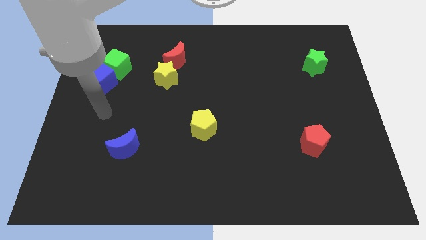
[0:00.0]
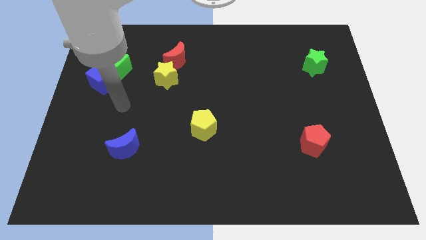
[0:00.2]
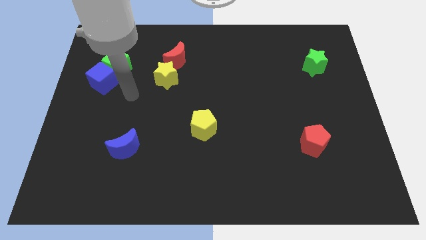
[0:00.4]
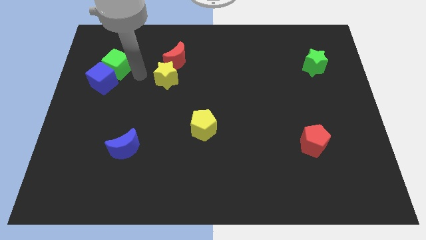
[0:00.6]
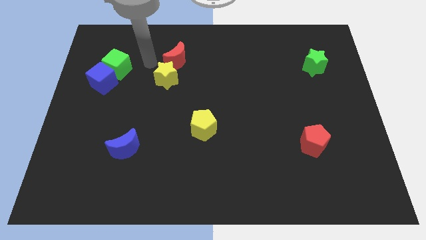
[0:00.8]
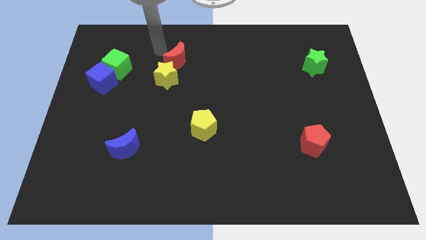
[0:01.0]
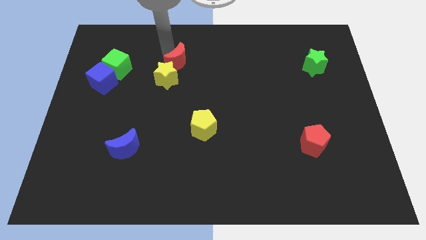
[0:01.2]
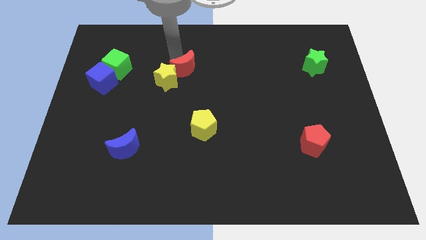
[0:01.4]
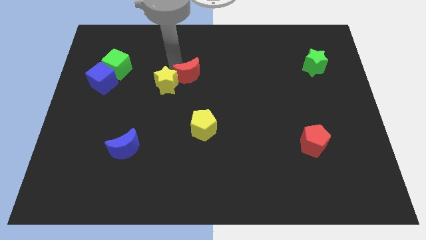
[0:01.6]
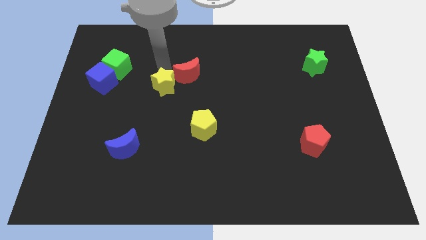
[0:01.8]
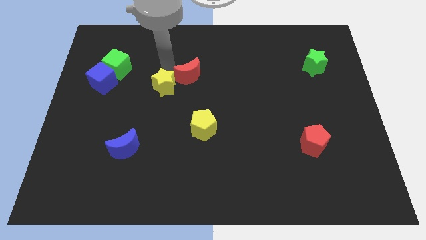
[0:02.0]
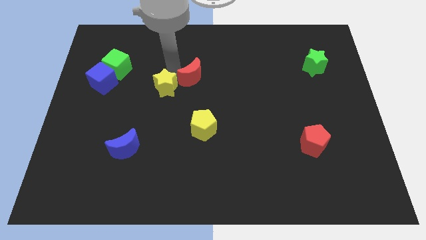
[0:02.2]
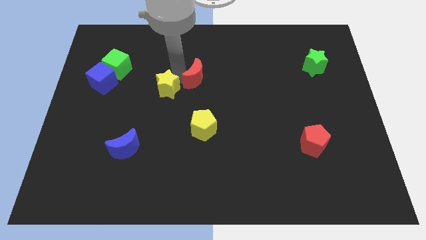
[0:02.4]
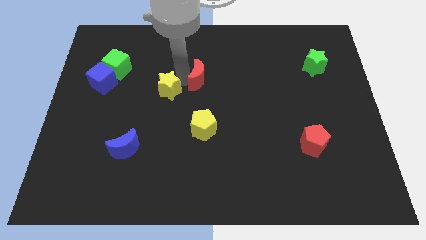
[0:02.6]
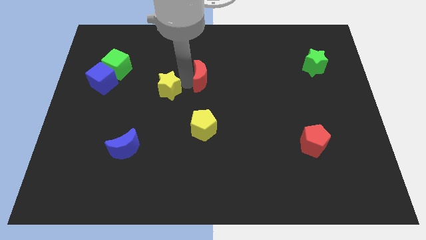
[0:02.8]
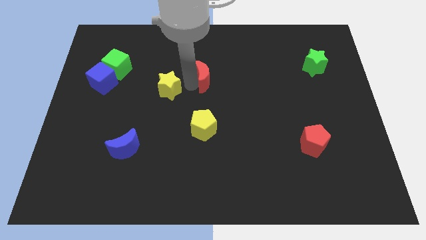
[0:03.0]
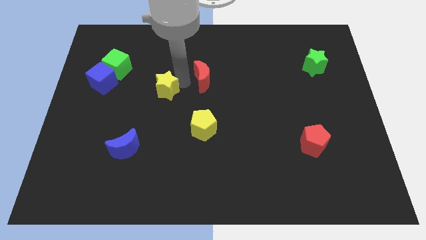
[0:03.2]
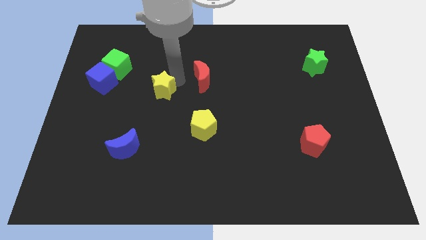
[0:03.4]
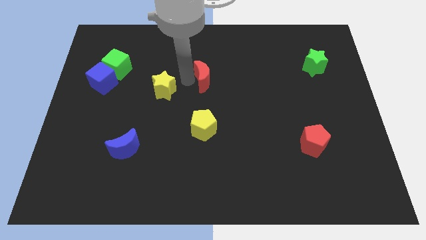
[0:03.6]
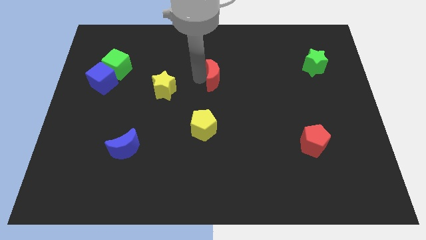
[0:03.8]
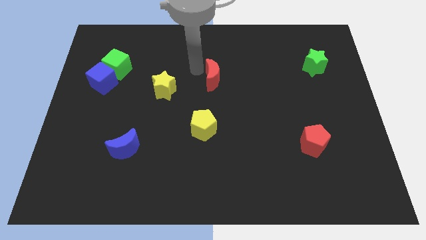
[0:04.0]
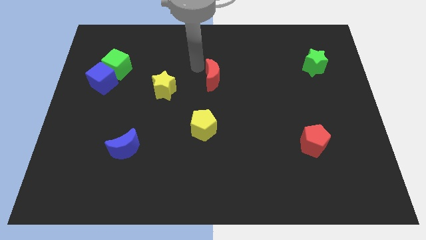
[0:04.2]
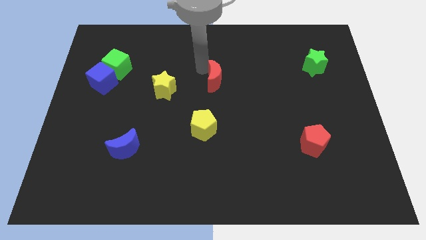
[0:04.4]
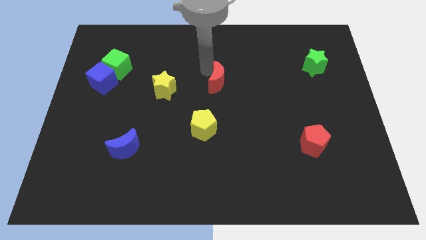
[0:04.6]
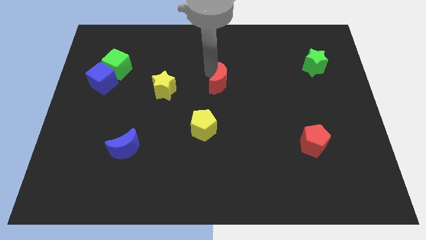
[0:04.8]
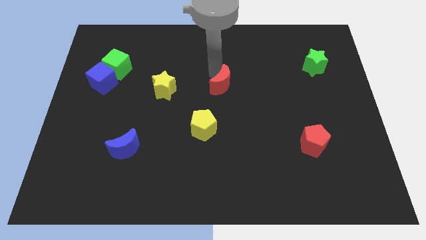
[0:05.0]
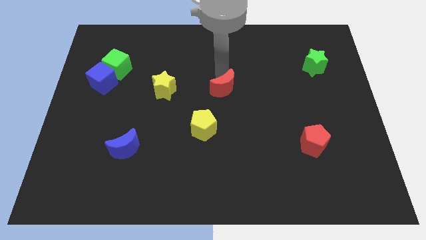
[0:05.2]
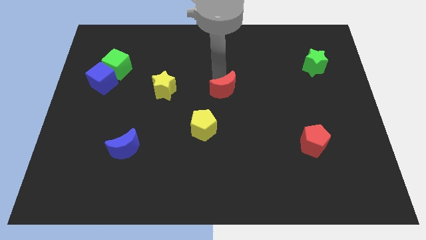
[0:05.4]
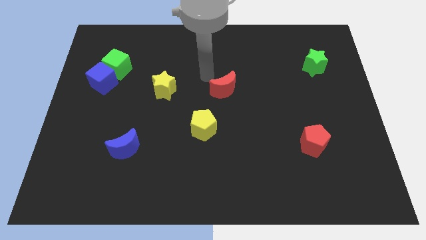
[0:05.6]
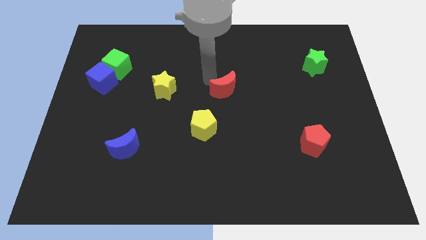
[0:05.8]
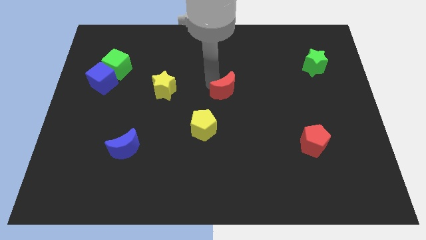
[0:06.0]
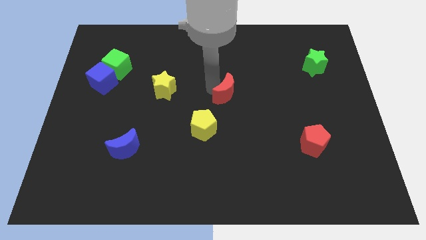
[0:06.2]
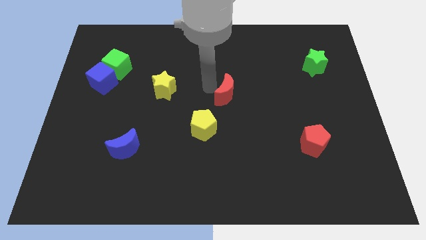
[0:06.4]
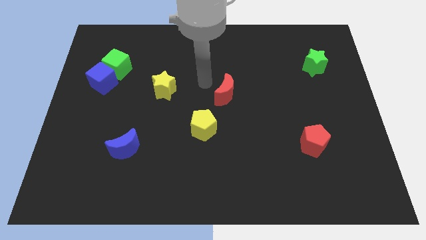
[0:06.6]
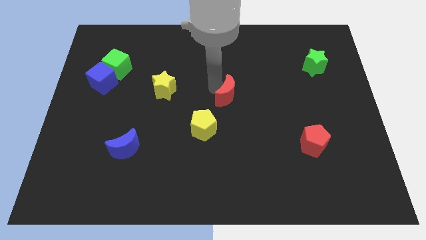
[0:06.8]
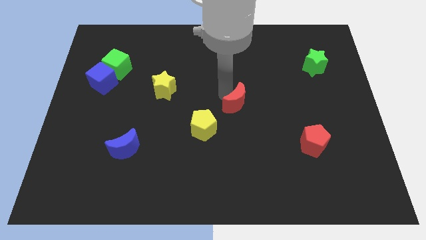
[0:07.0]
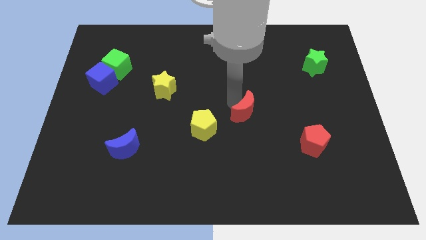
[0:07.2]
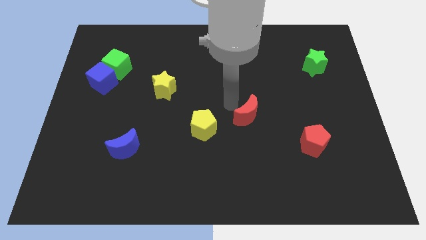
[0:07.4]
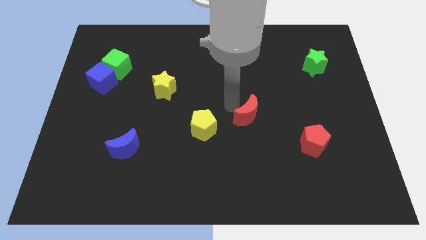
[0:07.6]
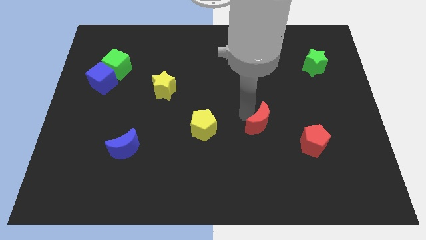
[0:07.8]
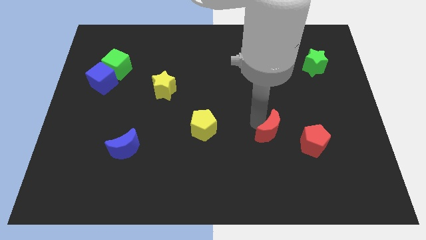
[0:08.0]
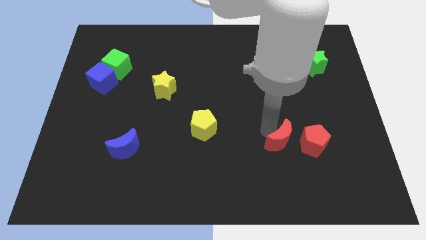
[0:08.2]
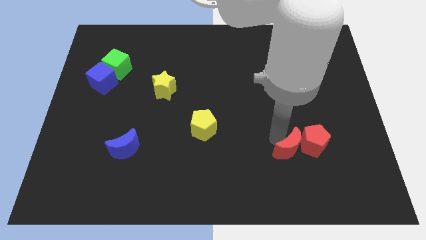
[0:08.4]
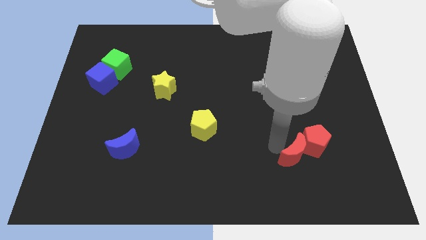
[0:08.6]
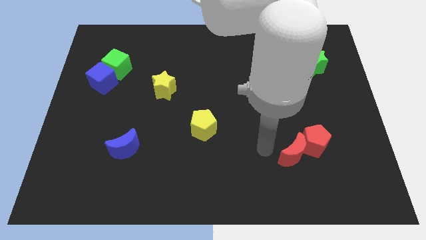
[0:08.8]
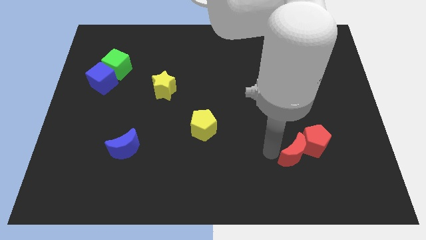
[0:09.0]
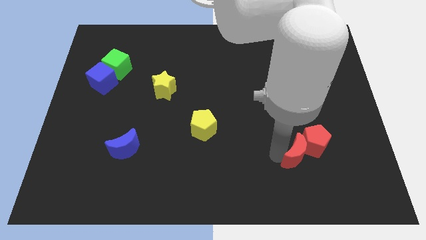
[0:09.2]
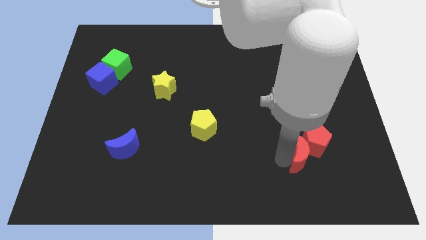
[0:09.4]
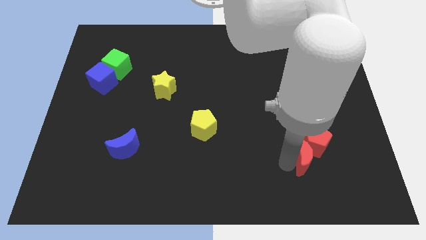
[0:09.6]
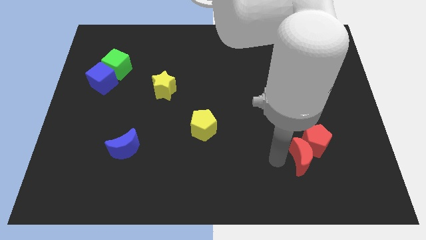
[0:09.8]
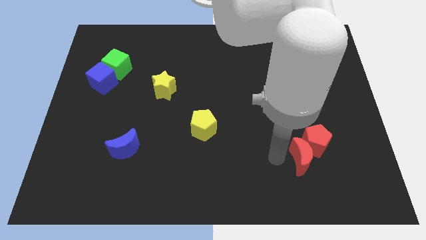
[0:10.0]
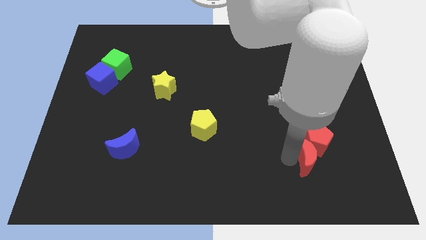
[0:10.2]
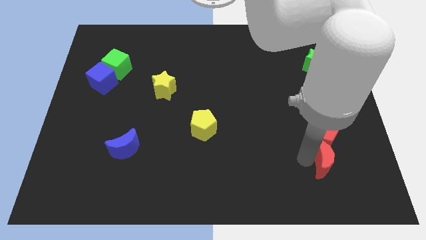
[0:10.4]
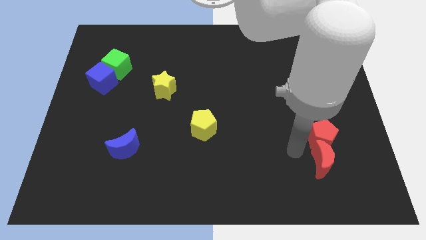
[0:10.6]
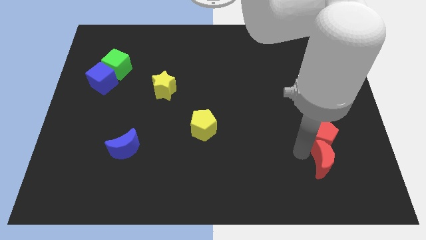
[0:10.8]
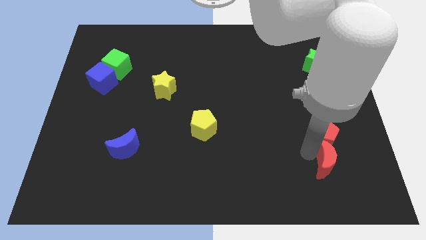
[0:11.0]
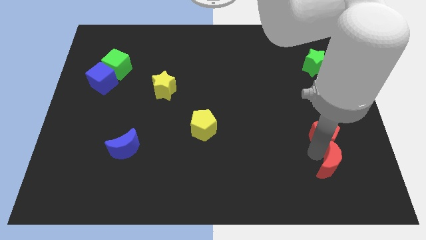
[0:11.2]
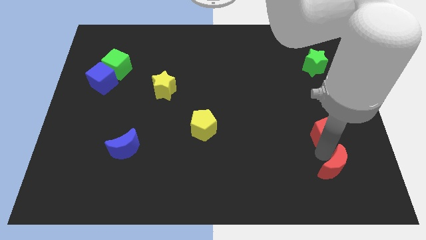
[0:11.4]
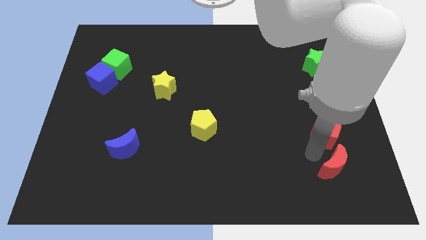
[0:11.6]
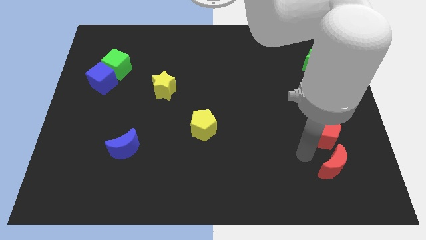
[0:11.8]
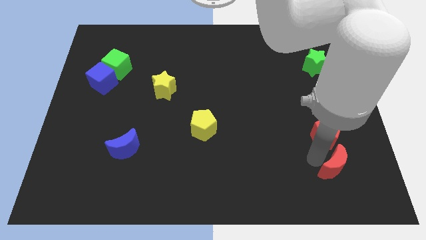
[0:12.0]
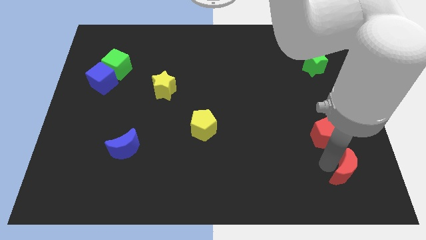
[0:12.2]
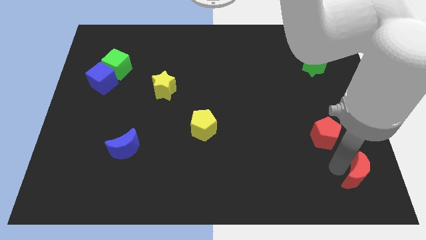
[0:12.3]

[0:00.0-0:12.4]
push the red moon to the bottom right corner

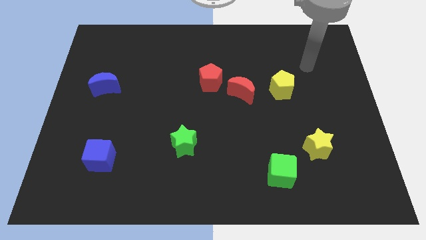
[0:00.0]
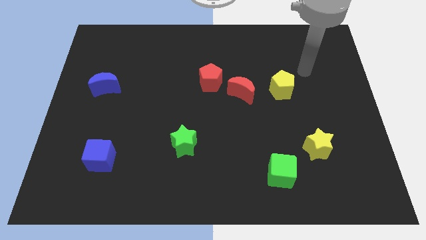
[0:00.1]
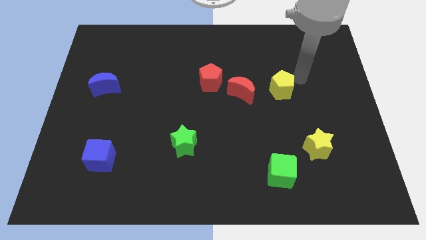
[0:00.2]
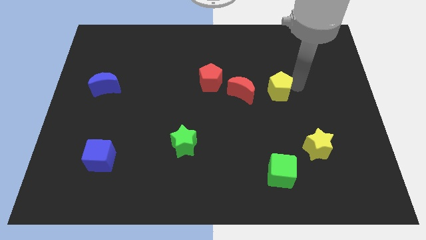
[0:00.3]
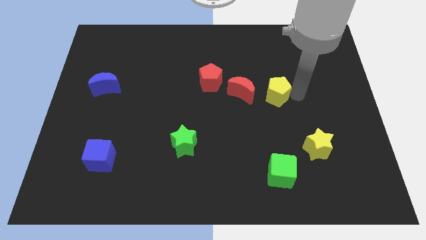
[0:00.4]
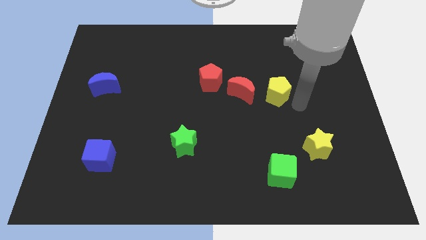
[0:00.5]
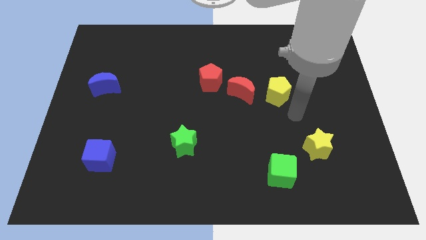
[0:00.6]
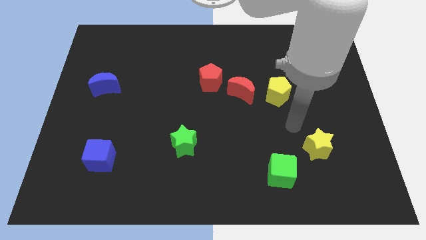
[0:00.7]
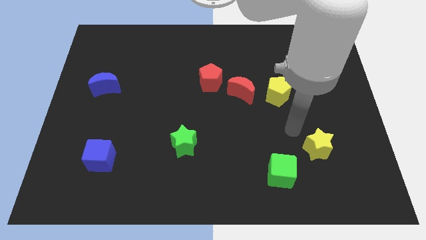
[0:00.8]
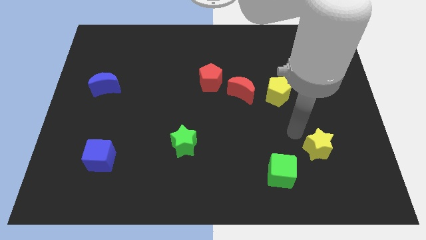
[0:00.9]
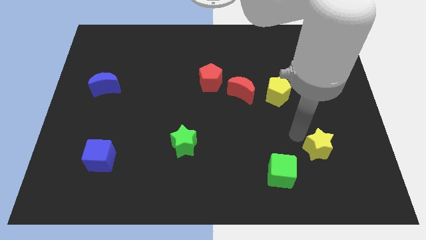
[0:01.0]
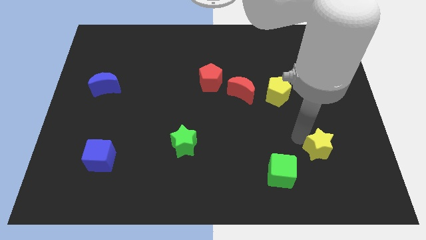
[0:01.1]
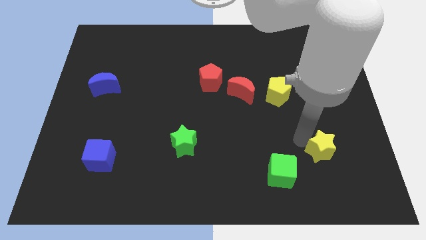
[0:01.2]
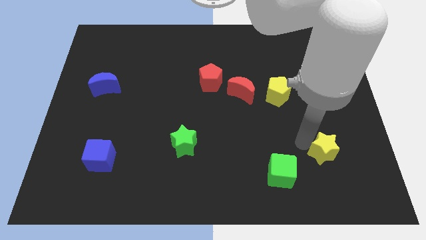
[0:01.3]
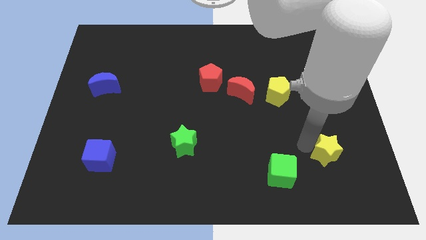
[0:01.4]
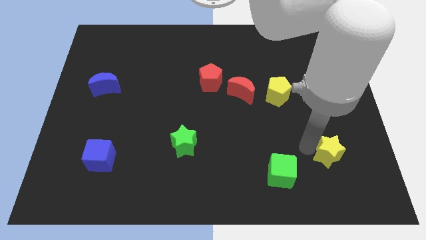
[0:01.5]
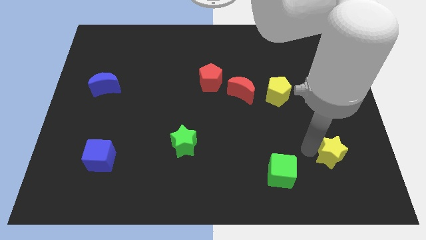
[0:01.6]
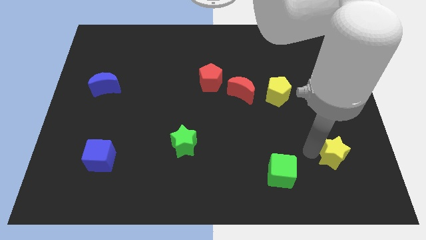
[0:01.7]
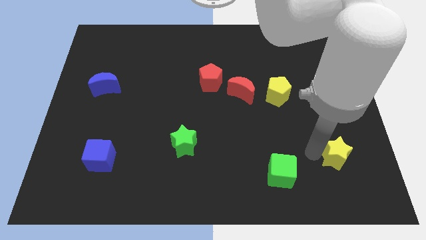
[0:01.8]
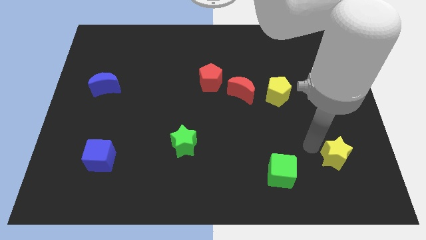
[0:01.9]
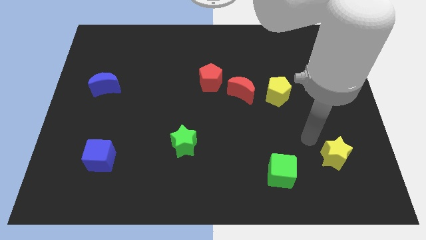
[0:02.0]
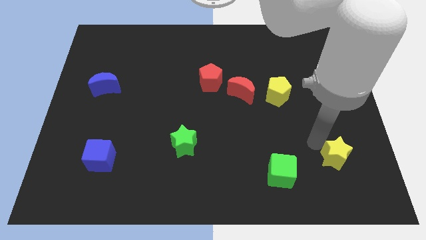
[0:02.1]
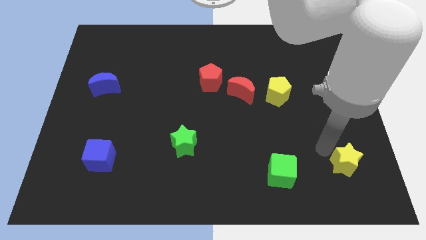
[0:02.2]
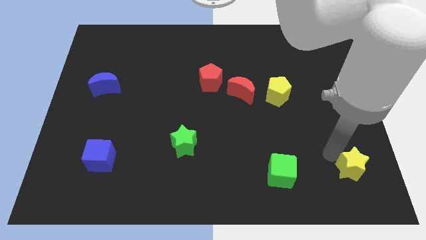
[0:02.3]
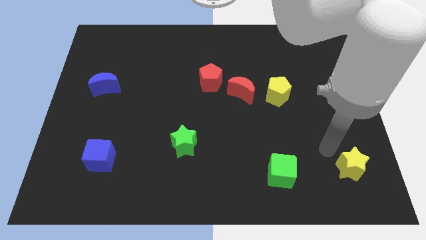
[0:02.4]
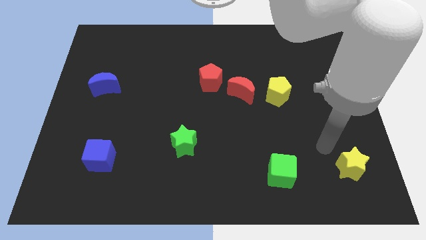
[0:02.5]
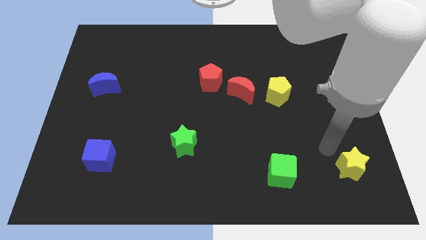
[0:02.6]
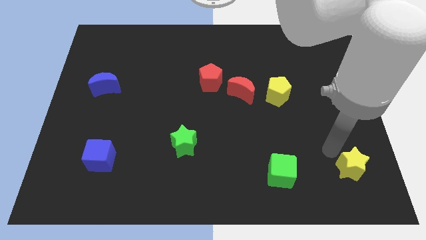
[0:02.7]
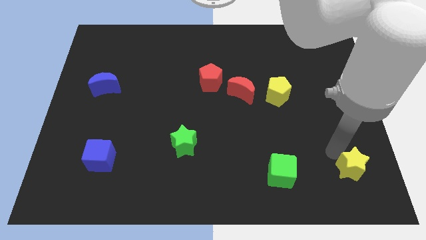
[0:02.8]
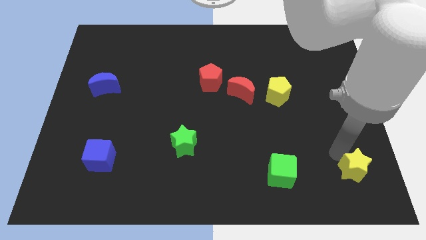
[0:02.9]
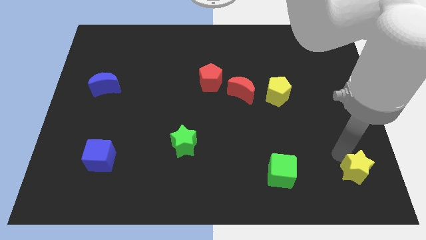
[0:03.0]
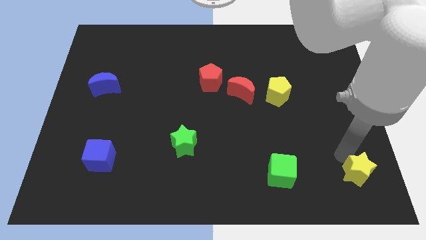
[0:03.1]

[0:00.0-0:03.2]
move the yellow star to the lower right corner
